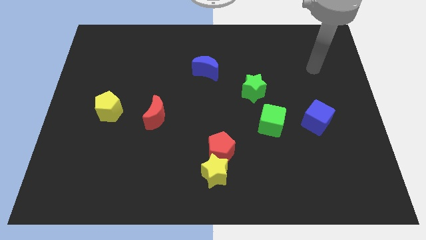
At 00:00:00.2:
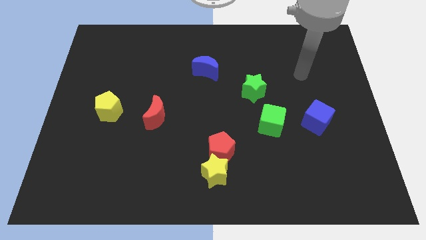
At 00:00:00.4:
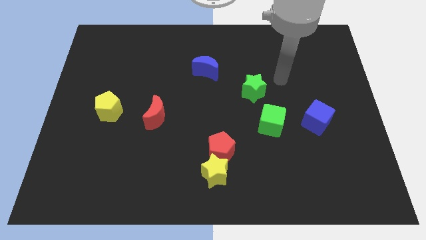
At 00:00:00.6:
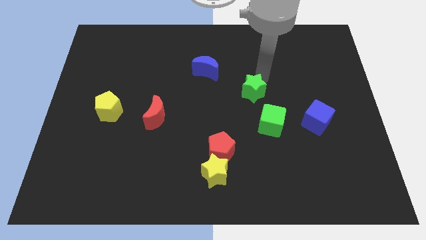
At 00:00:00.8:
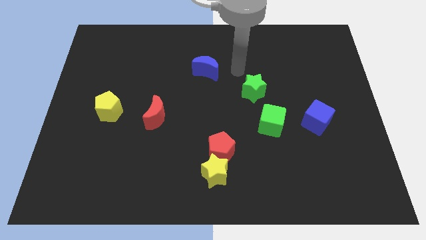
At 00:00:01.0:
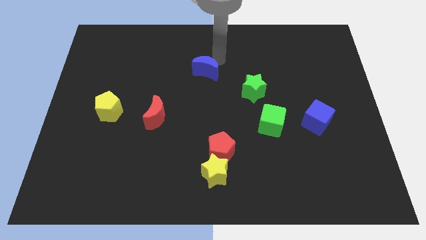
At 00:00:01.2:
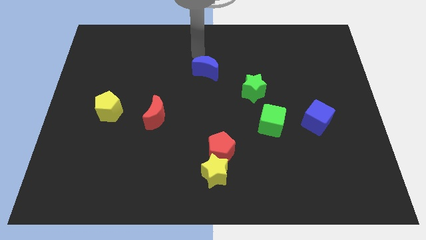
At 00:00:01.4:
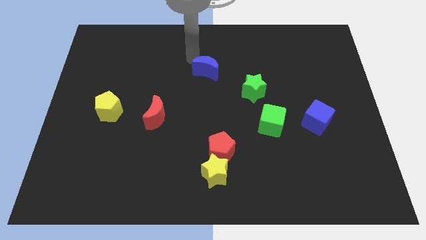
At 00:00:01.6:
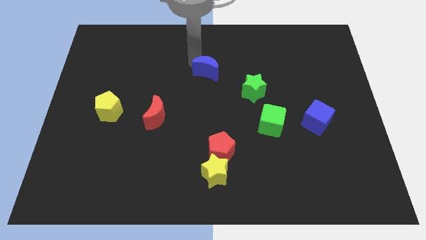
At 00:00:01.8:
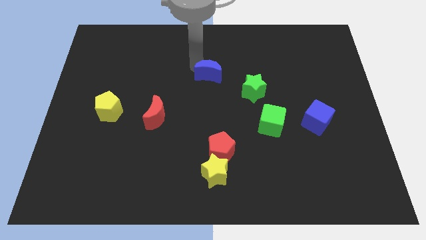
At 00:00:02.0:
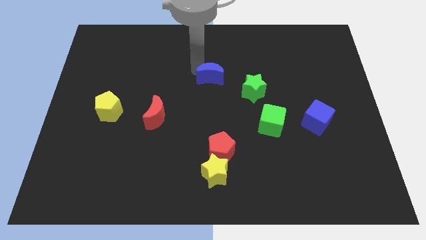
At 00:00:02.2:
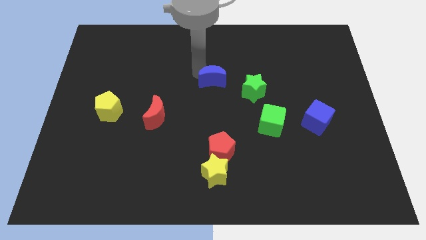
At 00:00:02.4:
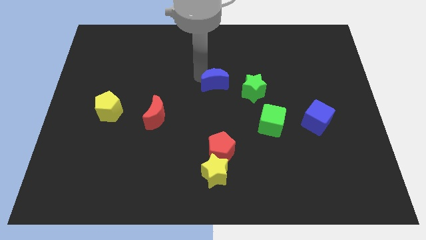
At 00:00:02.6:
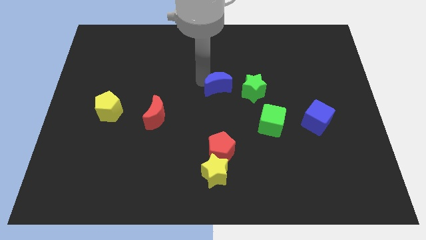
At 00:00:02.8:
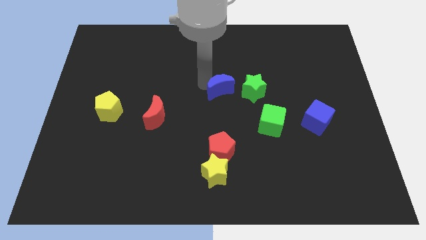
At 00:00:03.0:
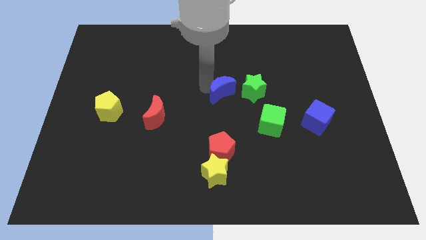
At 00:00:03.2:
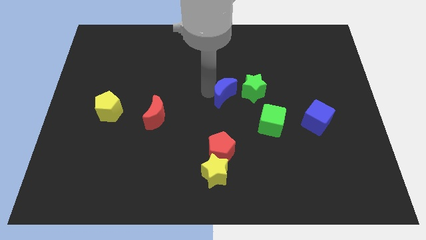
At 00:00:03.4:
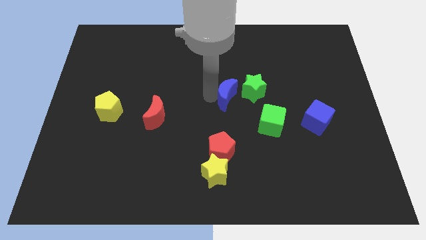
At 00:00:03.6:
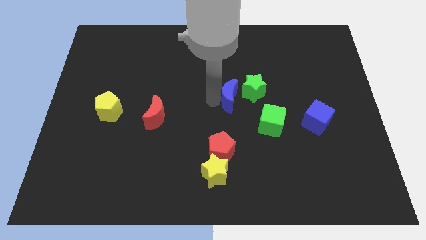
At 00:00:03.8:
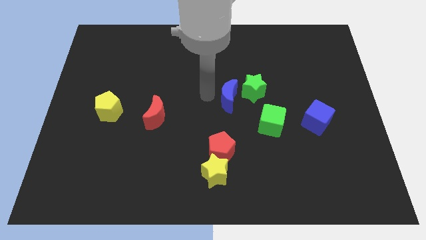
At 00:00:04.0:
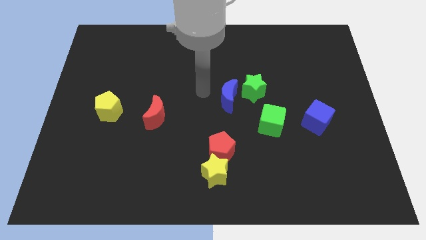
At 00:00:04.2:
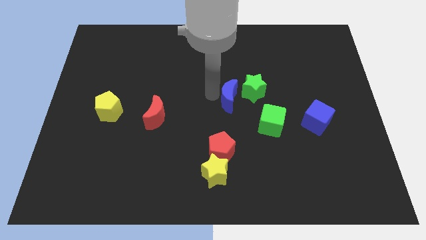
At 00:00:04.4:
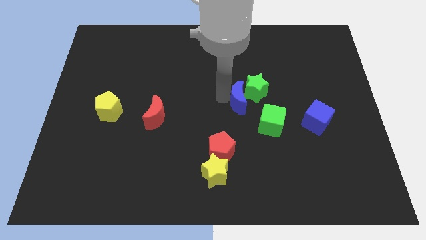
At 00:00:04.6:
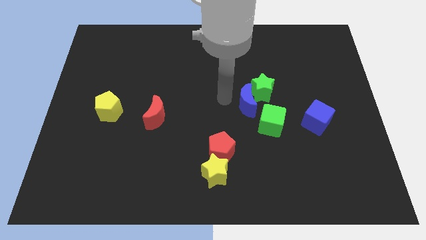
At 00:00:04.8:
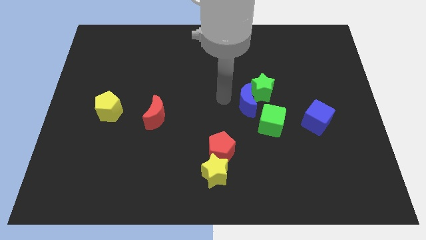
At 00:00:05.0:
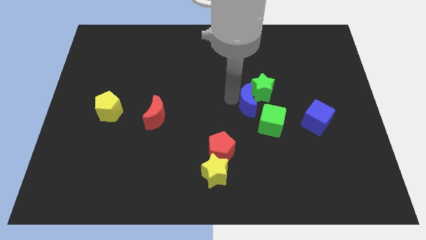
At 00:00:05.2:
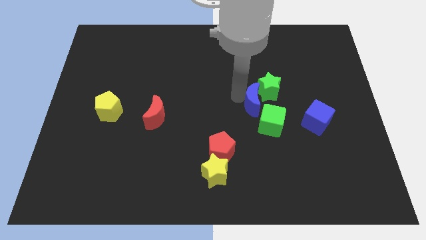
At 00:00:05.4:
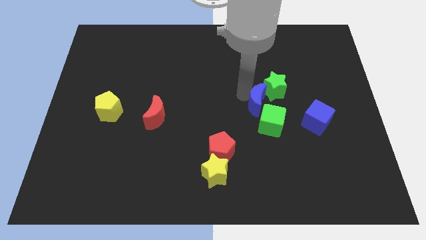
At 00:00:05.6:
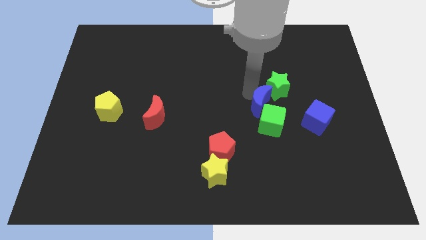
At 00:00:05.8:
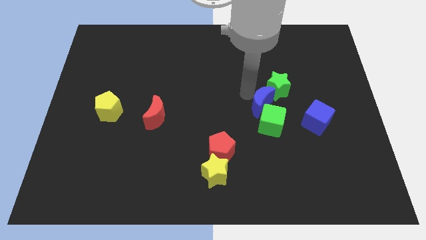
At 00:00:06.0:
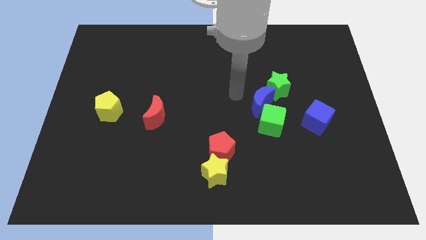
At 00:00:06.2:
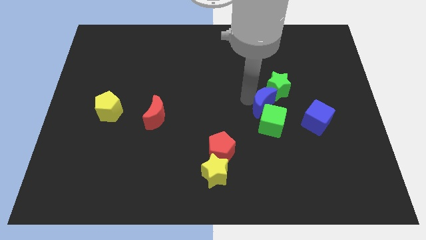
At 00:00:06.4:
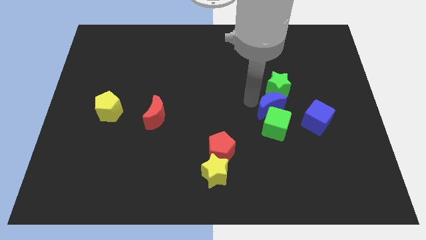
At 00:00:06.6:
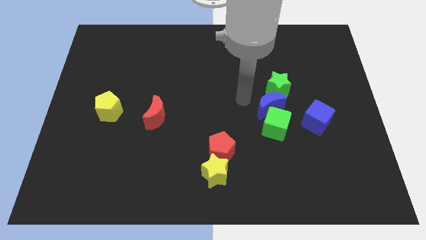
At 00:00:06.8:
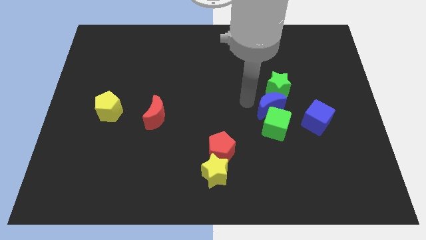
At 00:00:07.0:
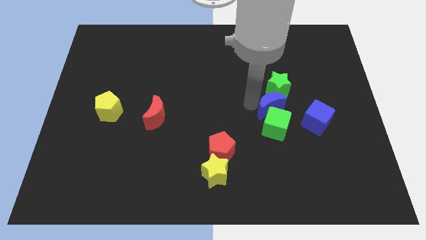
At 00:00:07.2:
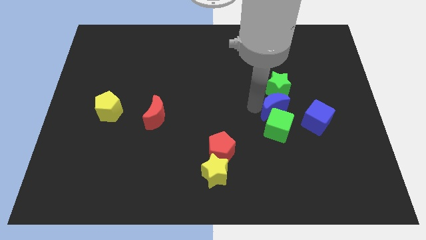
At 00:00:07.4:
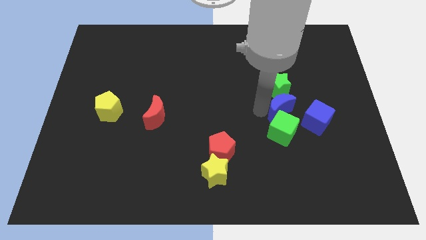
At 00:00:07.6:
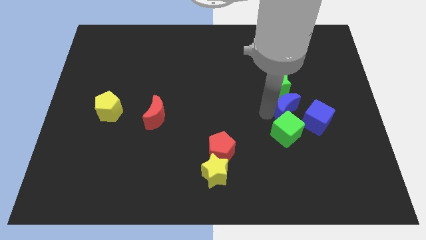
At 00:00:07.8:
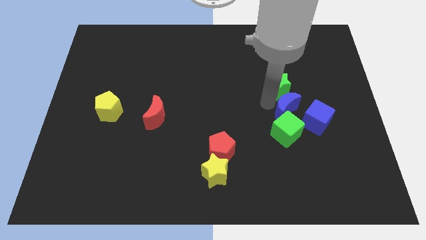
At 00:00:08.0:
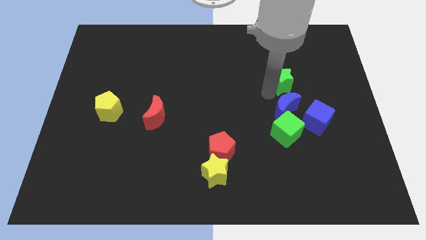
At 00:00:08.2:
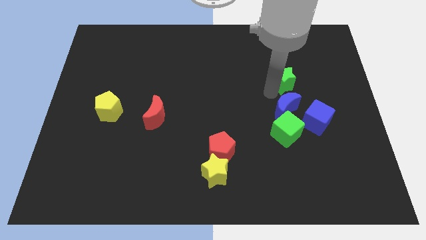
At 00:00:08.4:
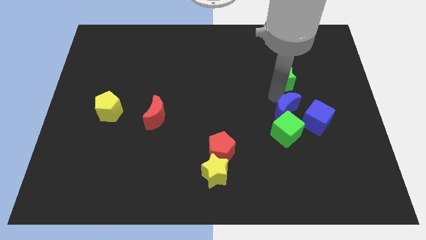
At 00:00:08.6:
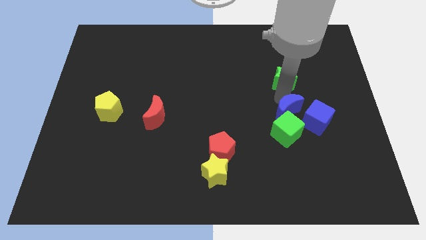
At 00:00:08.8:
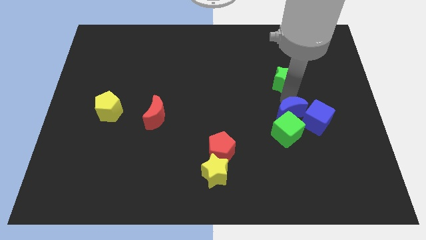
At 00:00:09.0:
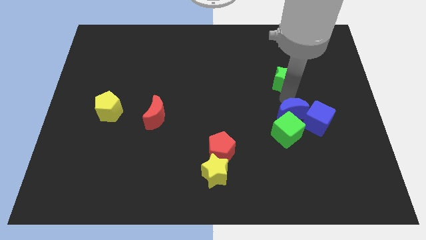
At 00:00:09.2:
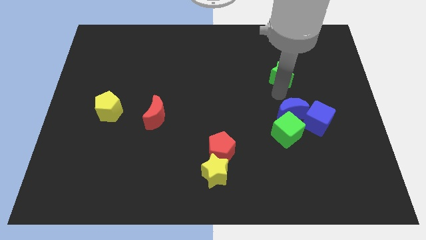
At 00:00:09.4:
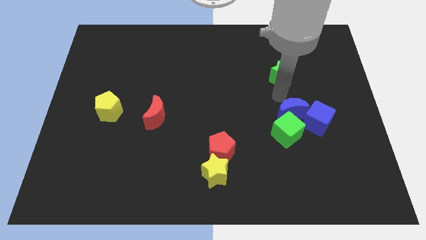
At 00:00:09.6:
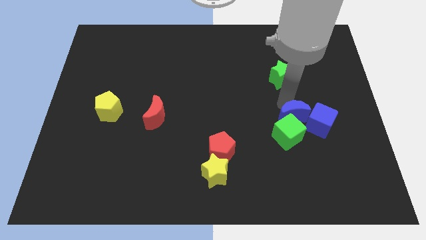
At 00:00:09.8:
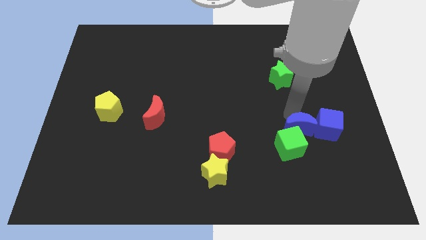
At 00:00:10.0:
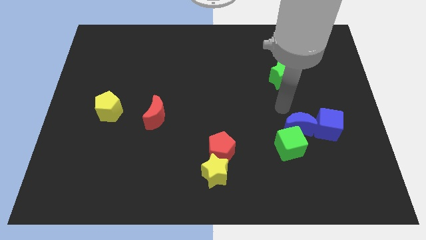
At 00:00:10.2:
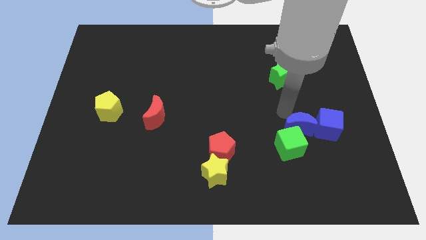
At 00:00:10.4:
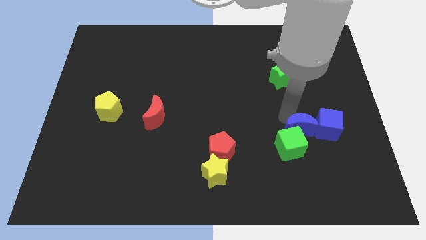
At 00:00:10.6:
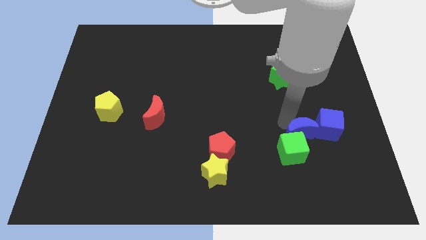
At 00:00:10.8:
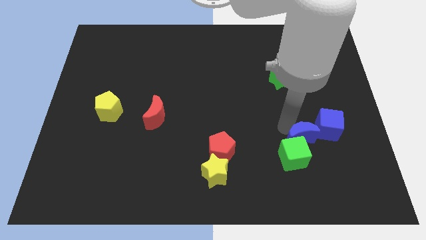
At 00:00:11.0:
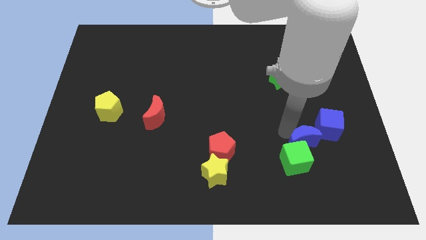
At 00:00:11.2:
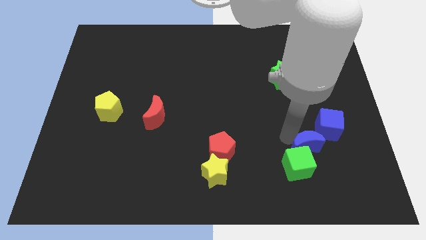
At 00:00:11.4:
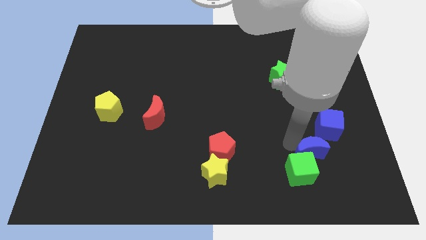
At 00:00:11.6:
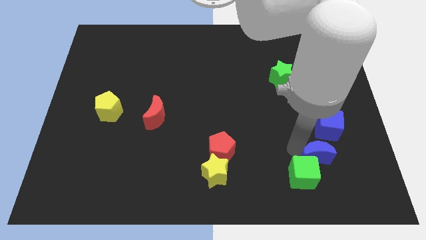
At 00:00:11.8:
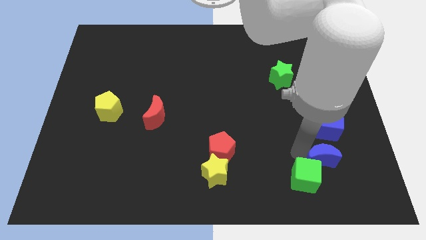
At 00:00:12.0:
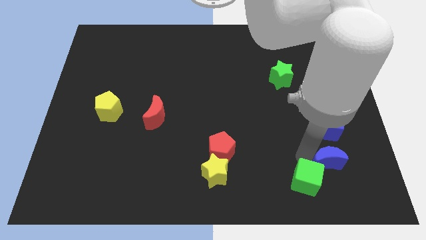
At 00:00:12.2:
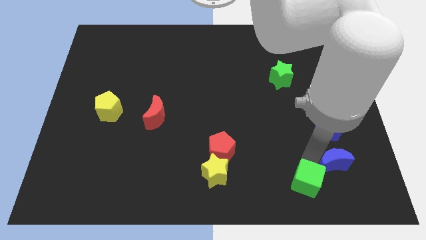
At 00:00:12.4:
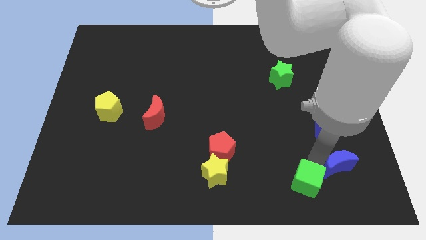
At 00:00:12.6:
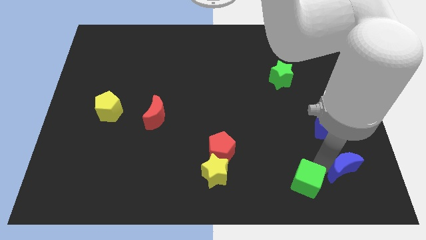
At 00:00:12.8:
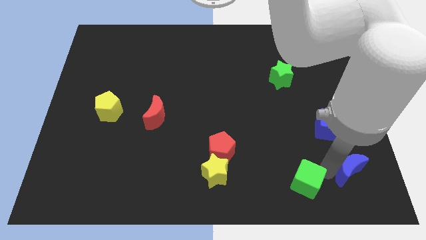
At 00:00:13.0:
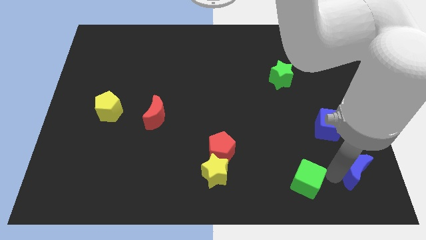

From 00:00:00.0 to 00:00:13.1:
slide the blue moon to the bottom right corner
